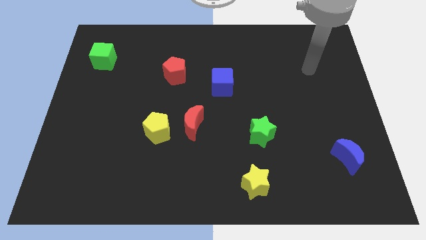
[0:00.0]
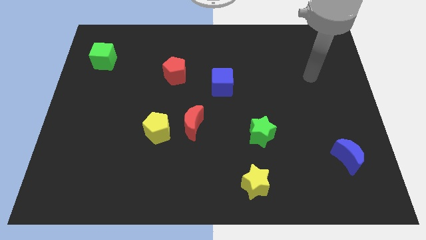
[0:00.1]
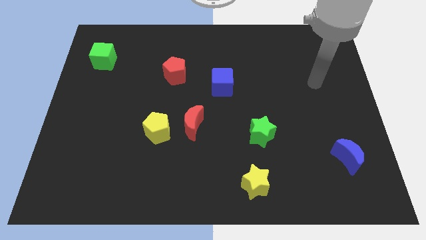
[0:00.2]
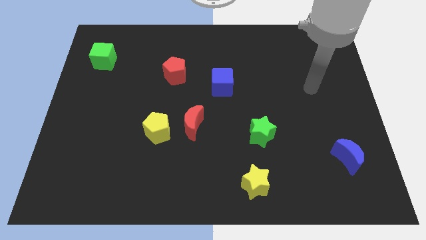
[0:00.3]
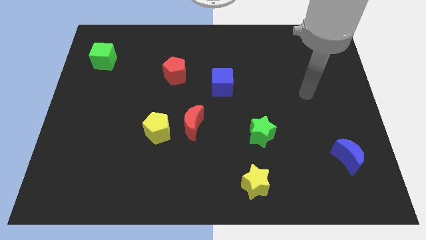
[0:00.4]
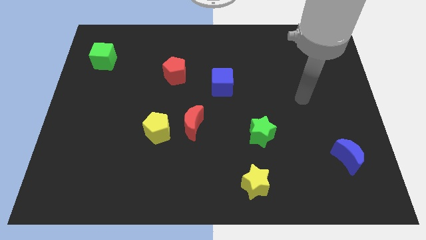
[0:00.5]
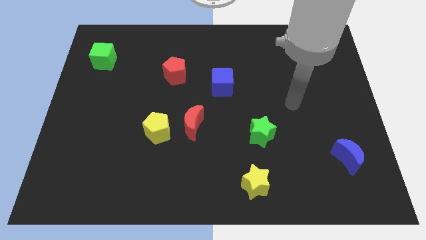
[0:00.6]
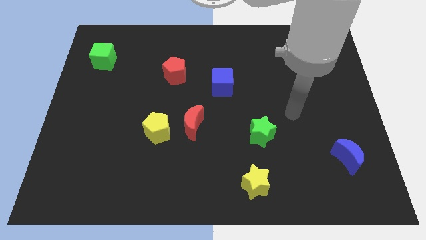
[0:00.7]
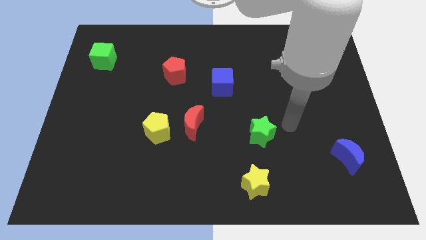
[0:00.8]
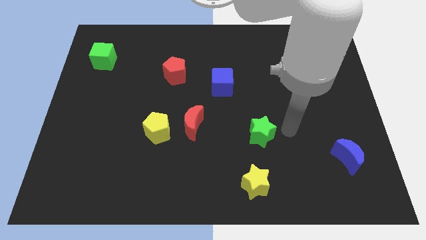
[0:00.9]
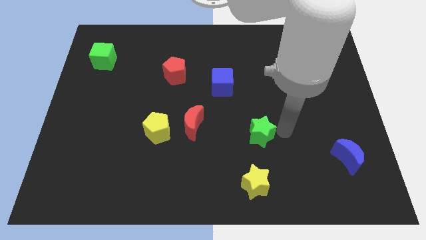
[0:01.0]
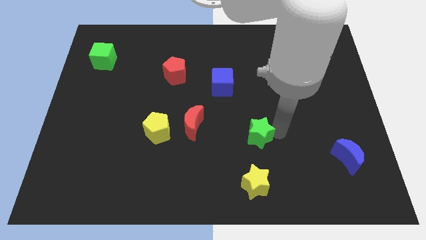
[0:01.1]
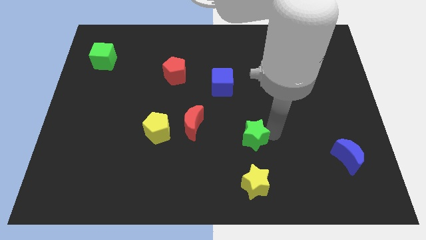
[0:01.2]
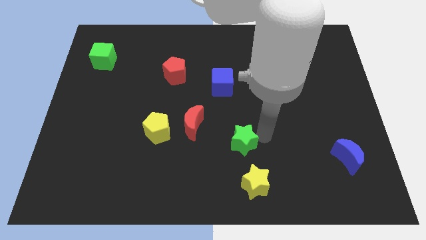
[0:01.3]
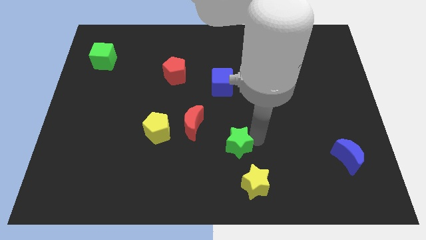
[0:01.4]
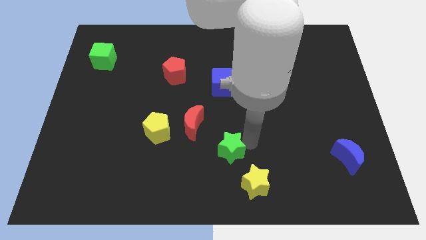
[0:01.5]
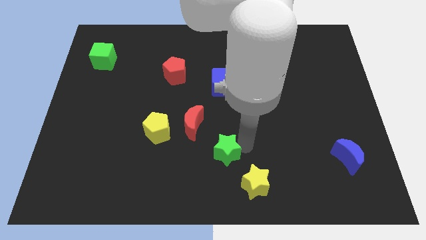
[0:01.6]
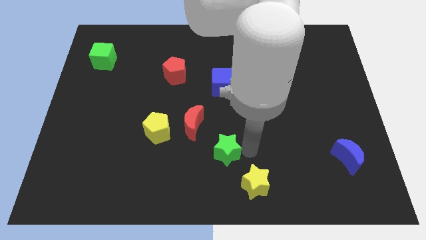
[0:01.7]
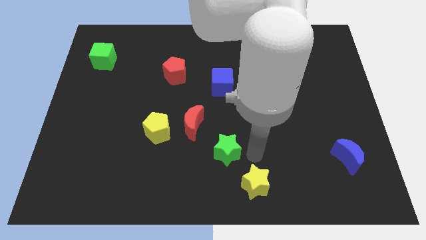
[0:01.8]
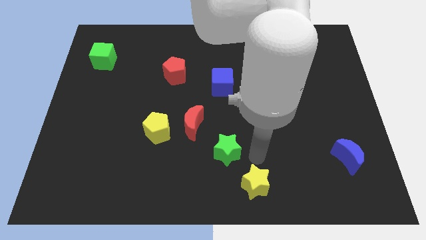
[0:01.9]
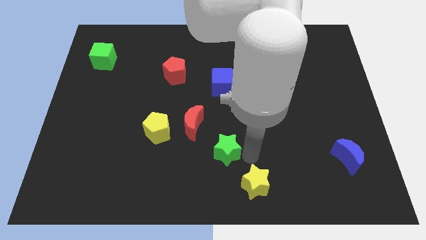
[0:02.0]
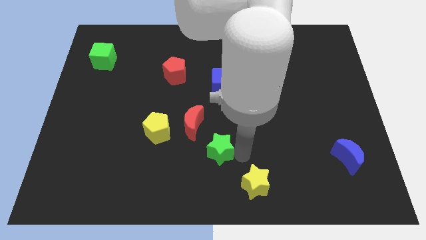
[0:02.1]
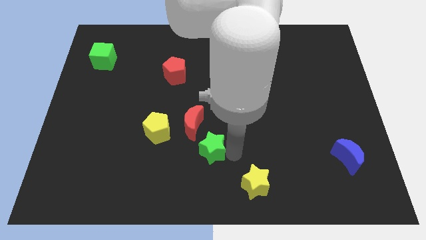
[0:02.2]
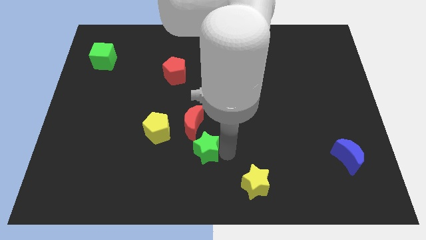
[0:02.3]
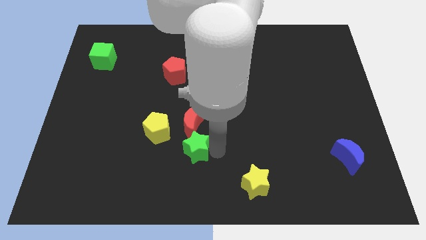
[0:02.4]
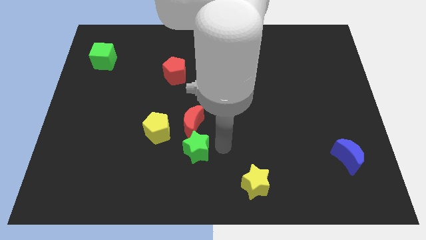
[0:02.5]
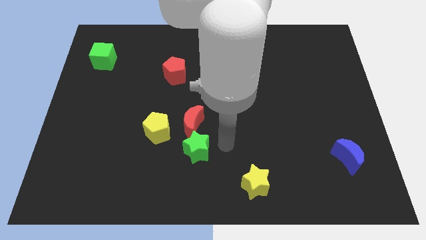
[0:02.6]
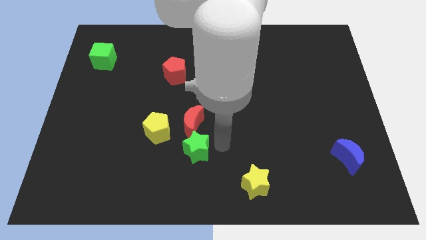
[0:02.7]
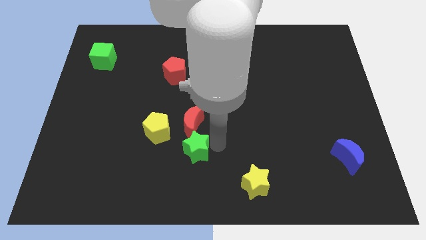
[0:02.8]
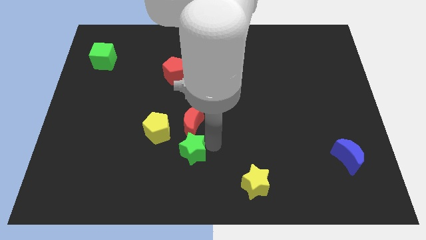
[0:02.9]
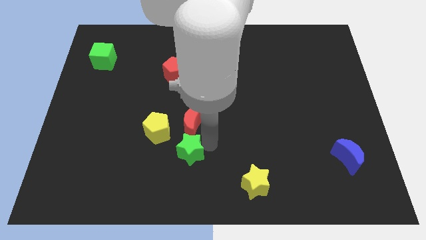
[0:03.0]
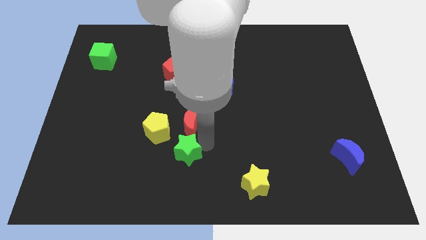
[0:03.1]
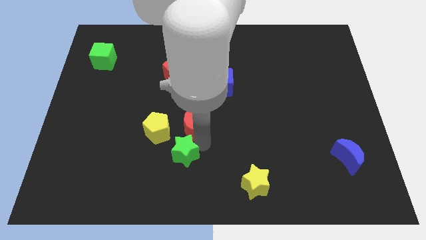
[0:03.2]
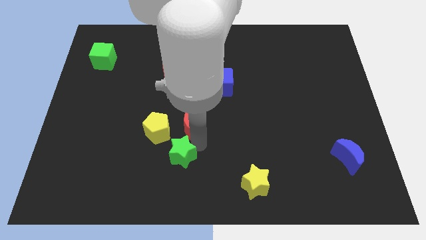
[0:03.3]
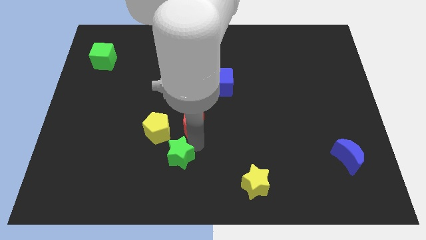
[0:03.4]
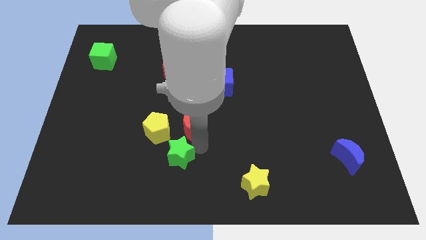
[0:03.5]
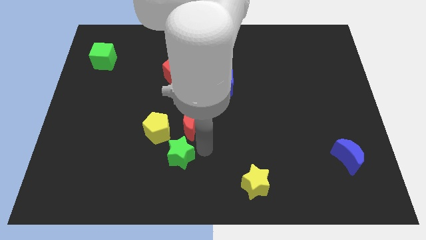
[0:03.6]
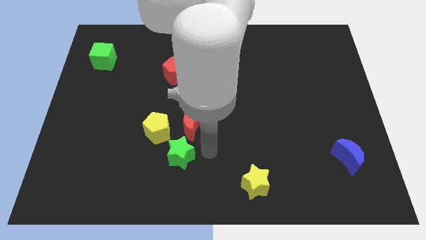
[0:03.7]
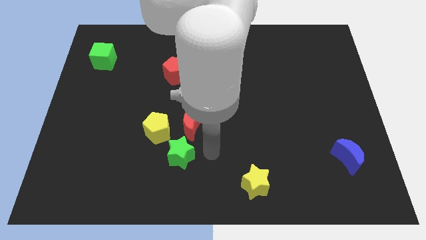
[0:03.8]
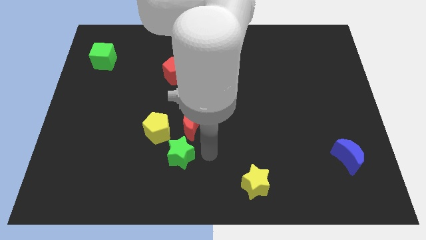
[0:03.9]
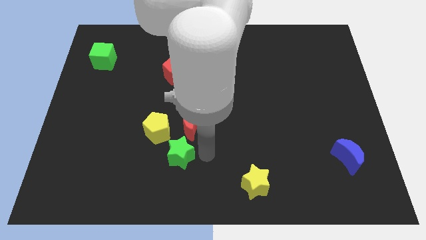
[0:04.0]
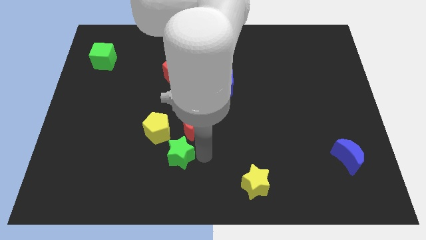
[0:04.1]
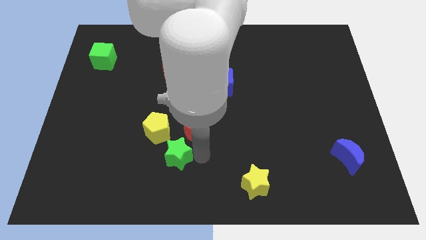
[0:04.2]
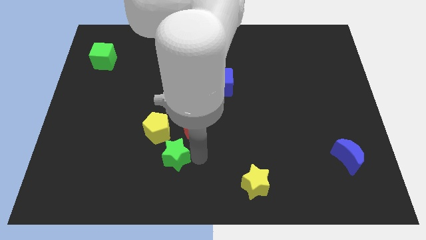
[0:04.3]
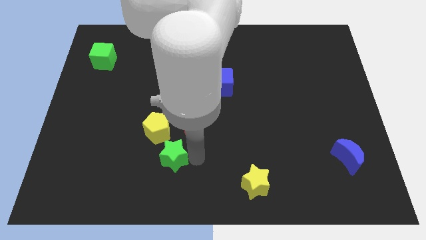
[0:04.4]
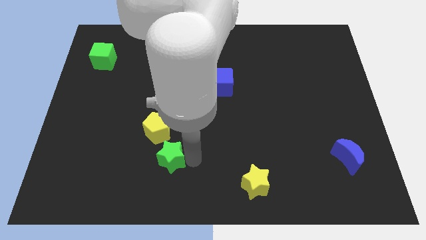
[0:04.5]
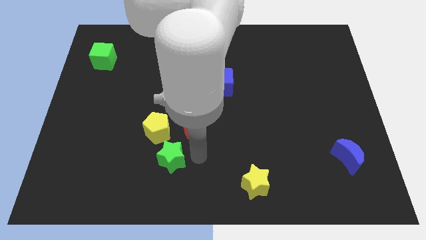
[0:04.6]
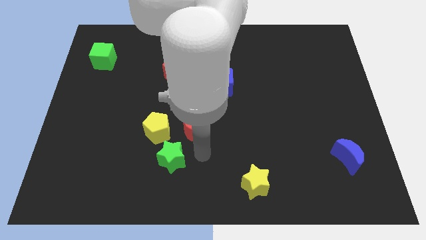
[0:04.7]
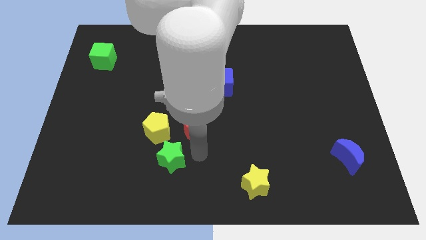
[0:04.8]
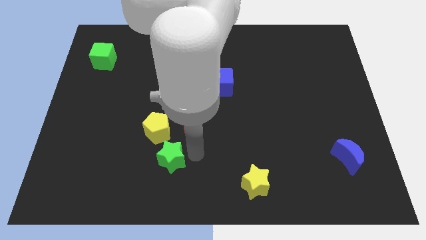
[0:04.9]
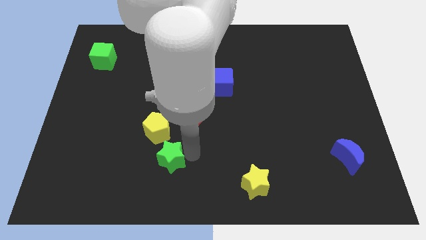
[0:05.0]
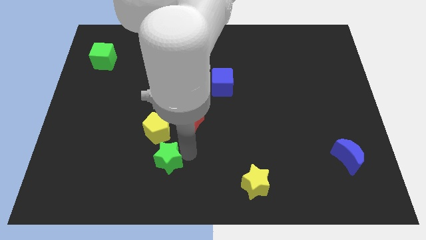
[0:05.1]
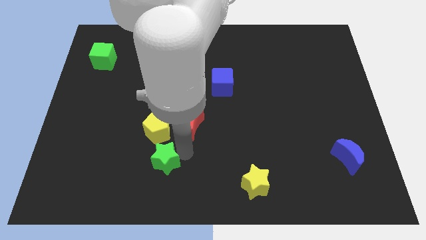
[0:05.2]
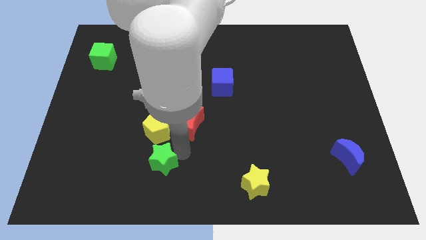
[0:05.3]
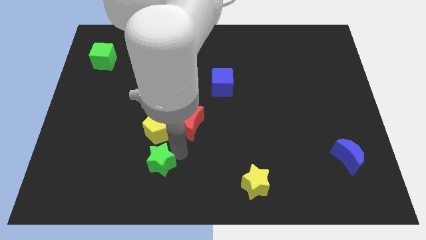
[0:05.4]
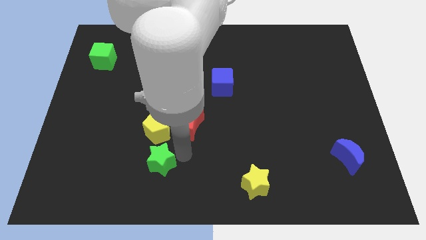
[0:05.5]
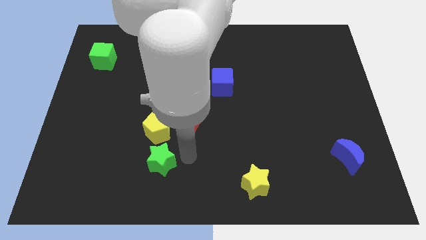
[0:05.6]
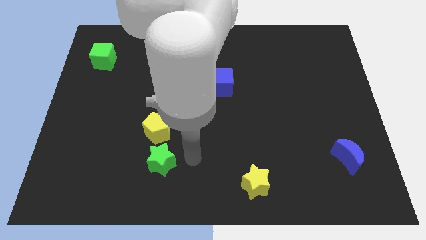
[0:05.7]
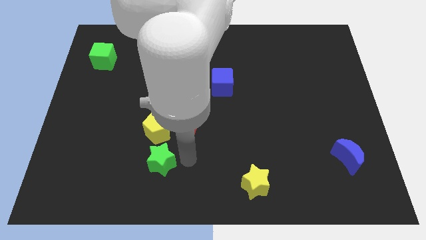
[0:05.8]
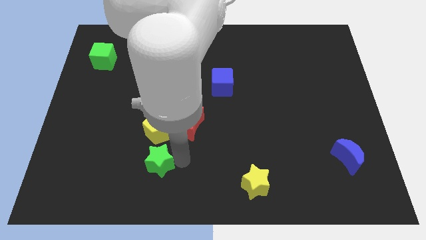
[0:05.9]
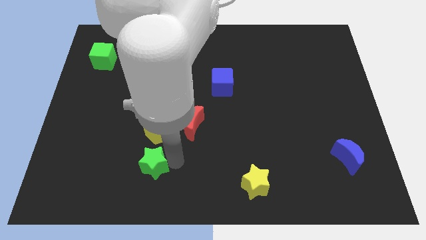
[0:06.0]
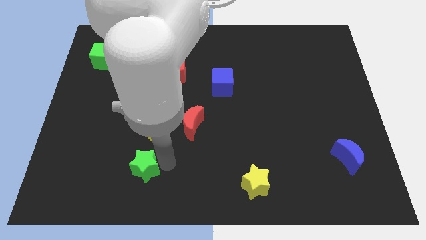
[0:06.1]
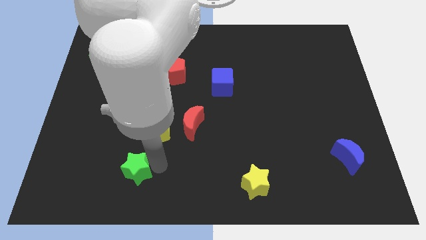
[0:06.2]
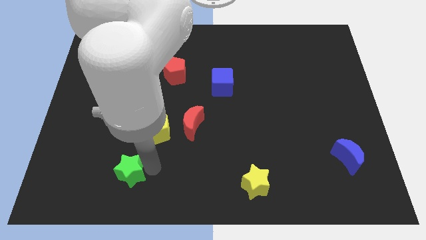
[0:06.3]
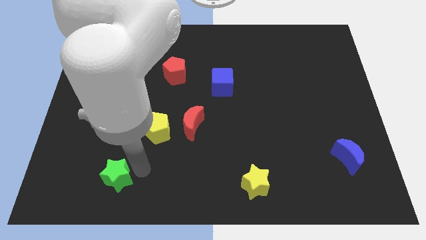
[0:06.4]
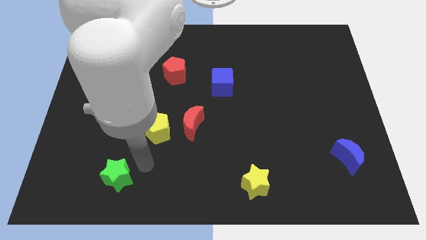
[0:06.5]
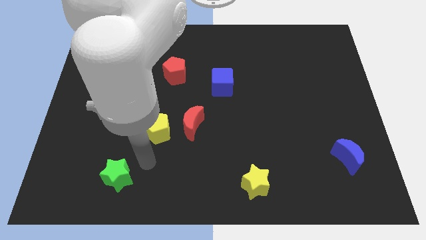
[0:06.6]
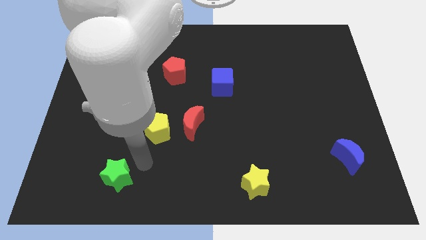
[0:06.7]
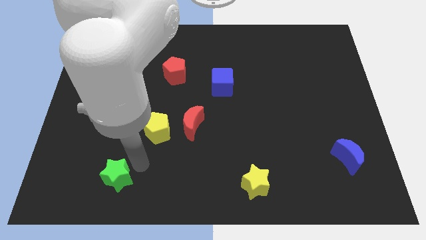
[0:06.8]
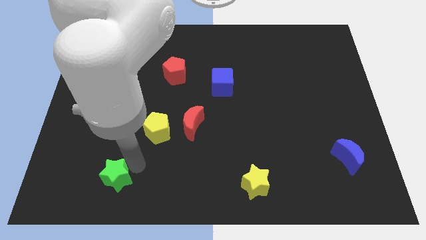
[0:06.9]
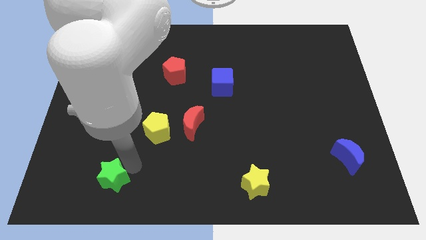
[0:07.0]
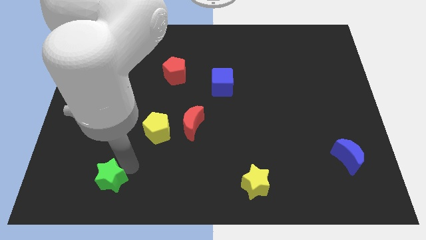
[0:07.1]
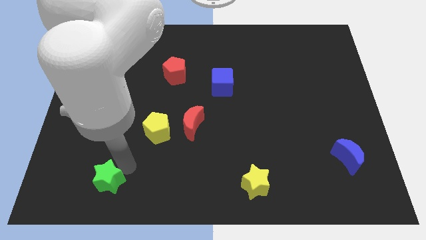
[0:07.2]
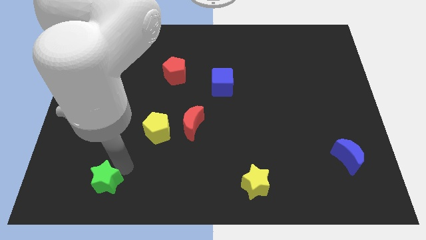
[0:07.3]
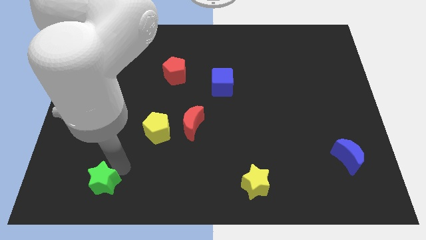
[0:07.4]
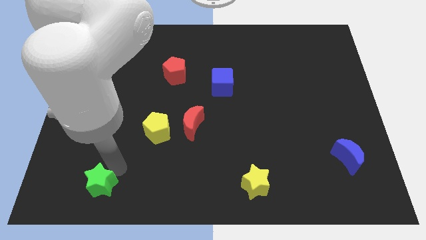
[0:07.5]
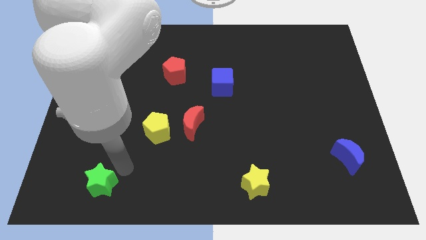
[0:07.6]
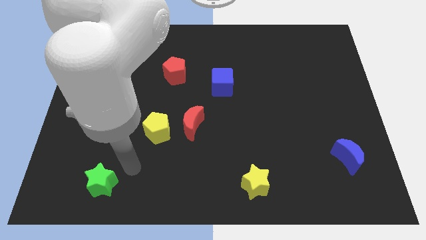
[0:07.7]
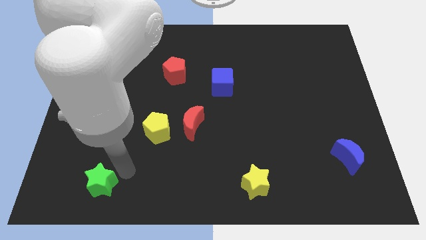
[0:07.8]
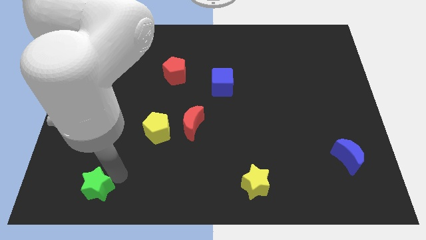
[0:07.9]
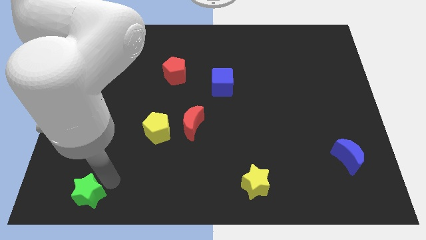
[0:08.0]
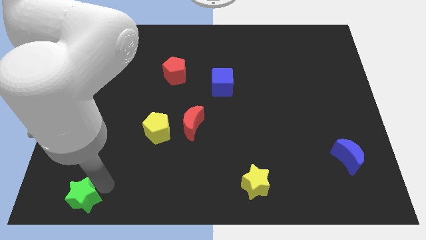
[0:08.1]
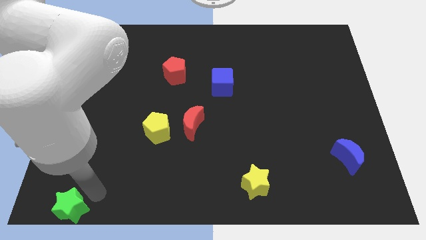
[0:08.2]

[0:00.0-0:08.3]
slide the green star to the bottom left corner
